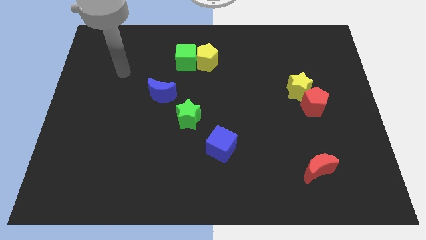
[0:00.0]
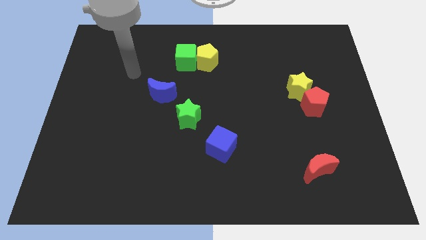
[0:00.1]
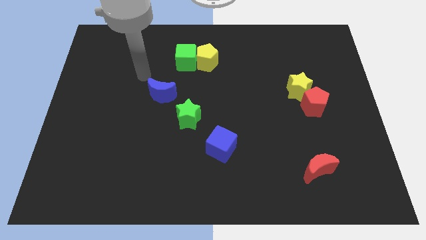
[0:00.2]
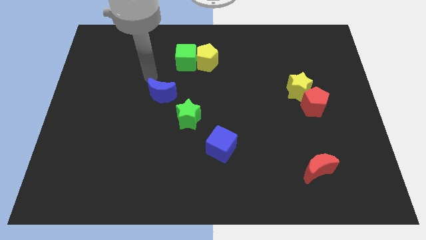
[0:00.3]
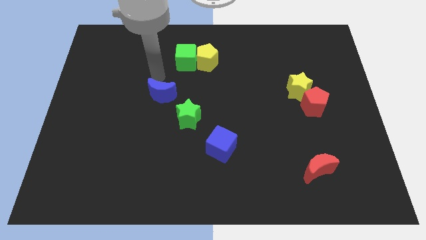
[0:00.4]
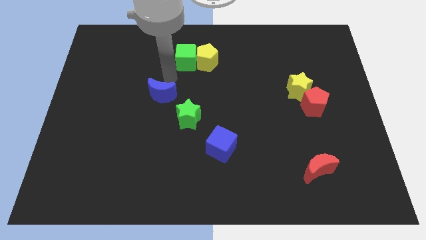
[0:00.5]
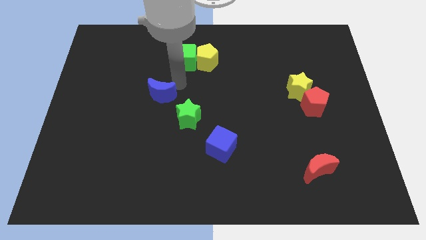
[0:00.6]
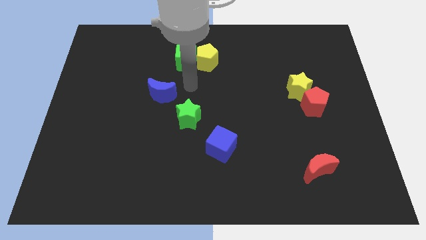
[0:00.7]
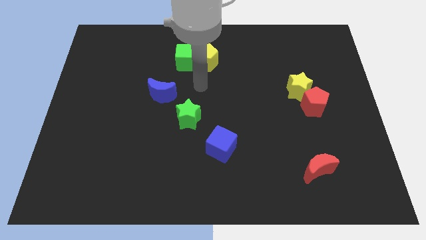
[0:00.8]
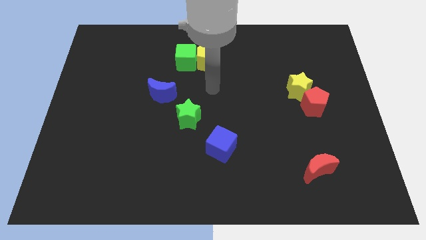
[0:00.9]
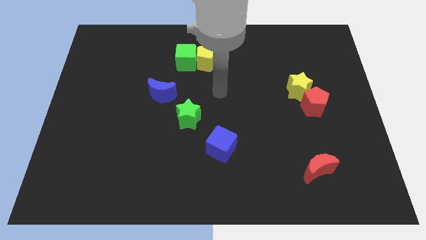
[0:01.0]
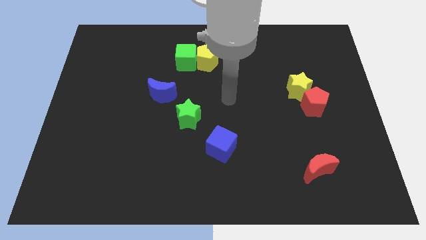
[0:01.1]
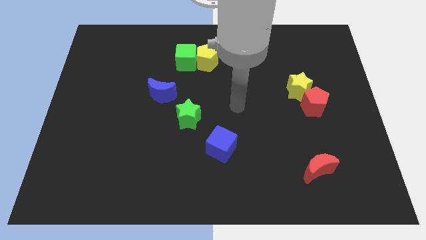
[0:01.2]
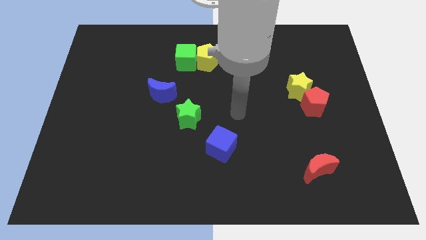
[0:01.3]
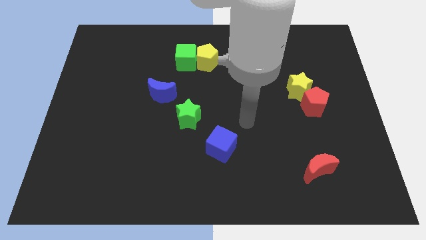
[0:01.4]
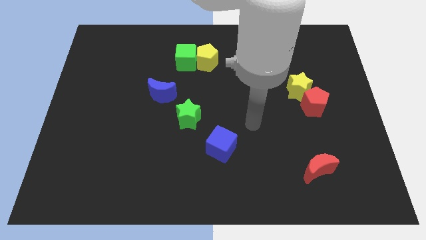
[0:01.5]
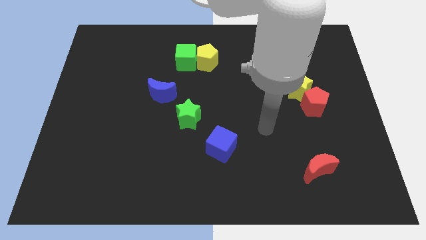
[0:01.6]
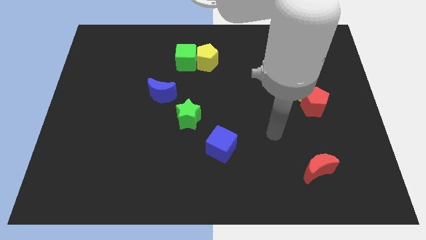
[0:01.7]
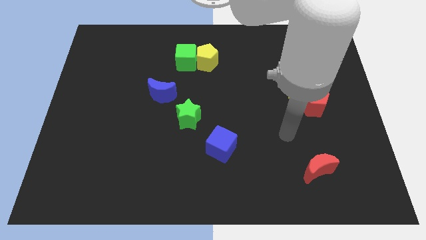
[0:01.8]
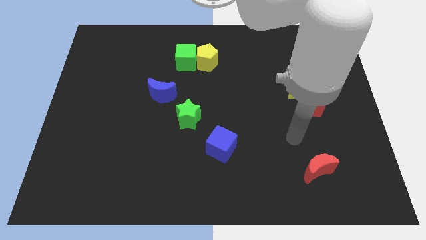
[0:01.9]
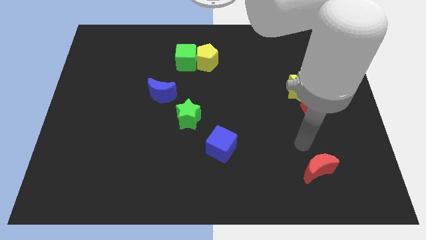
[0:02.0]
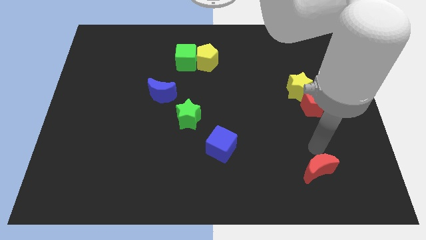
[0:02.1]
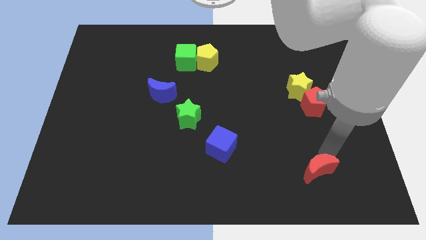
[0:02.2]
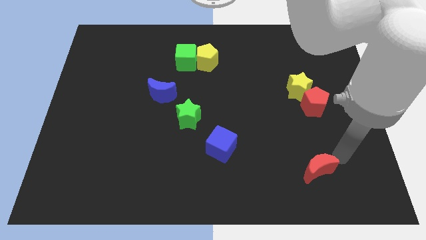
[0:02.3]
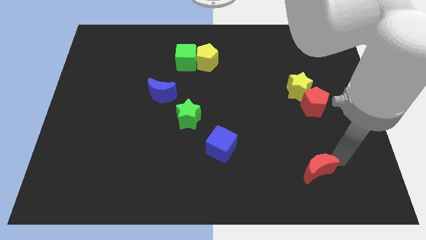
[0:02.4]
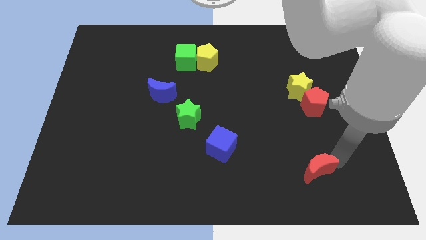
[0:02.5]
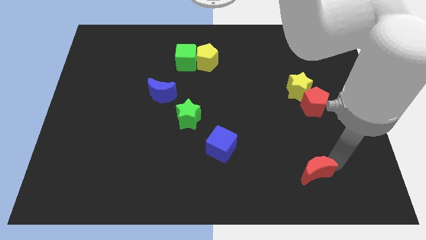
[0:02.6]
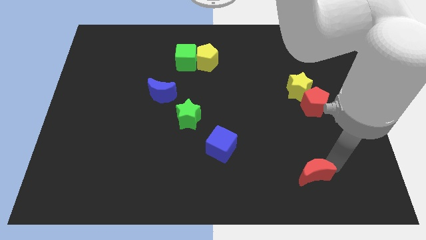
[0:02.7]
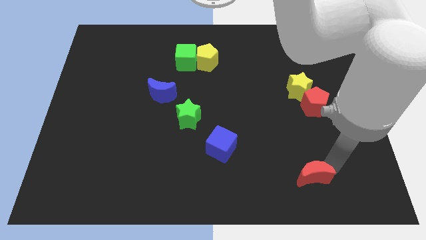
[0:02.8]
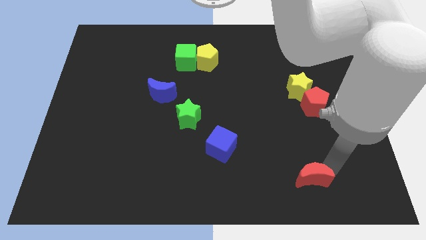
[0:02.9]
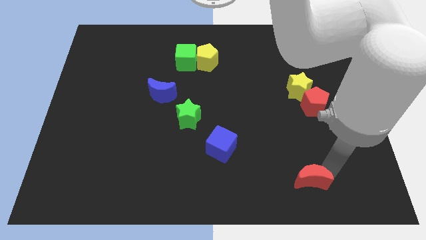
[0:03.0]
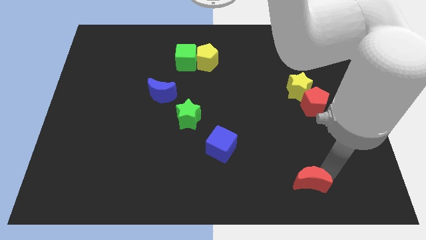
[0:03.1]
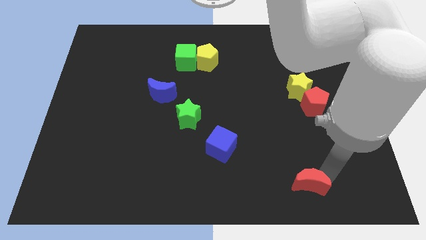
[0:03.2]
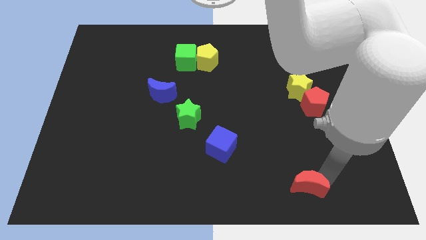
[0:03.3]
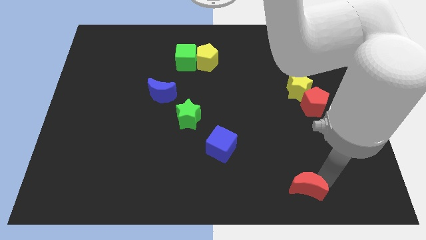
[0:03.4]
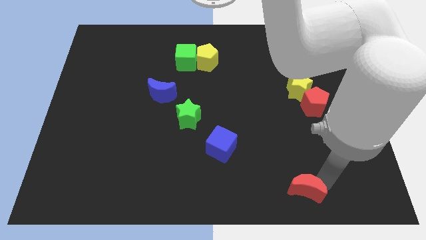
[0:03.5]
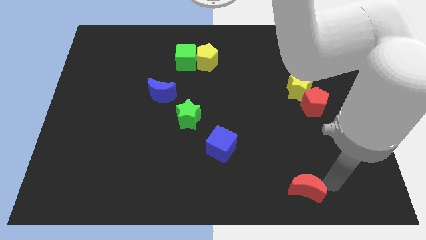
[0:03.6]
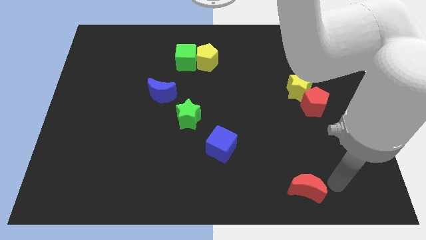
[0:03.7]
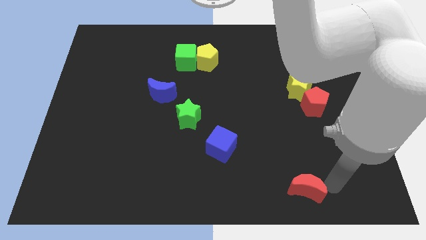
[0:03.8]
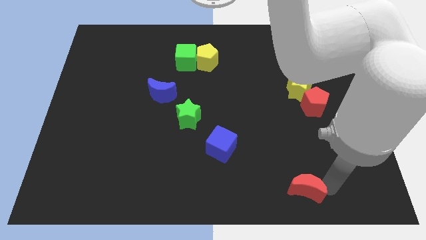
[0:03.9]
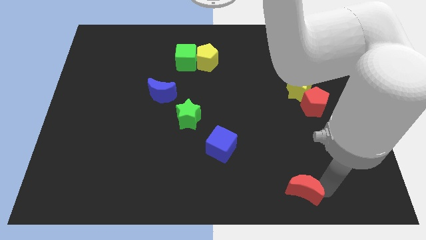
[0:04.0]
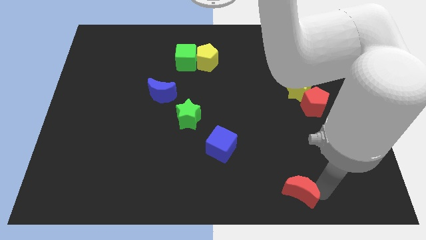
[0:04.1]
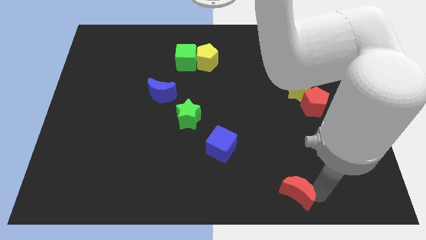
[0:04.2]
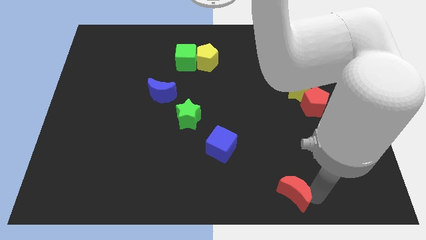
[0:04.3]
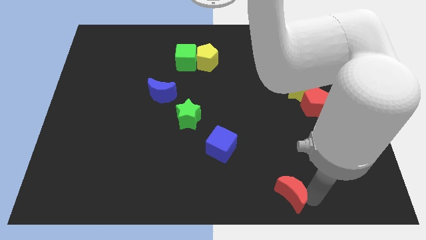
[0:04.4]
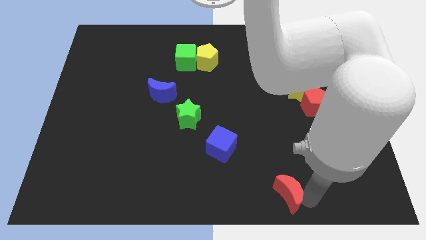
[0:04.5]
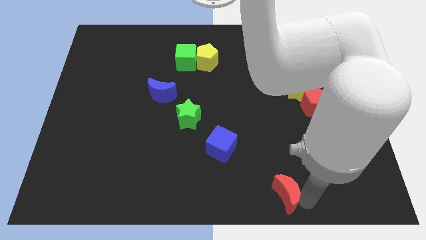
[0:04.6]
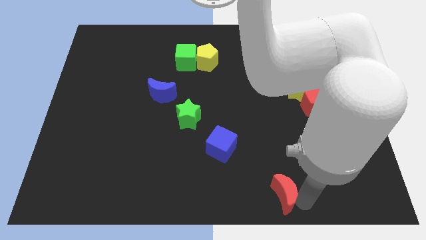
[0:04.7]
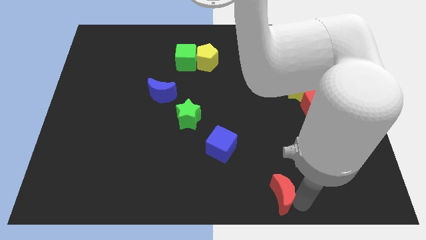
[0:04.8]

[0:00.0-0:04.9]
put the red moon to the bottom

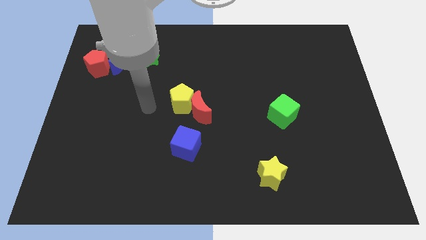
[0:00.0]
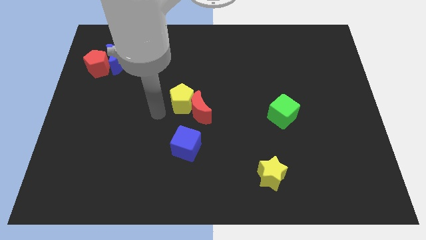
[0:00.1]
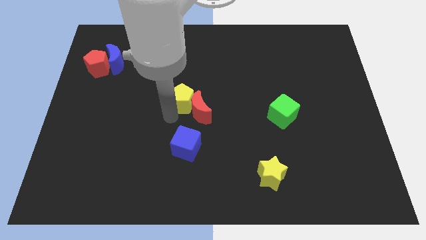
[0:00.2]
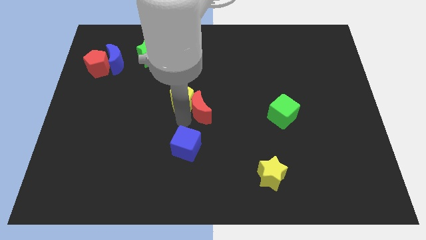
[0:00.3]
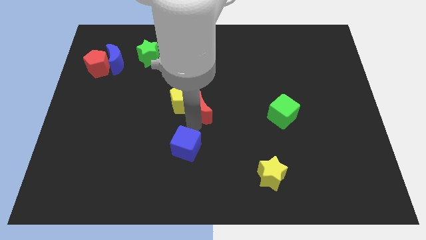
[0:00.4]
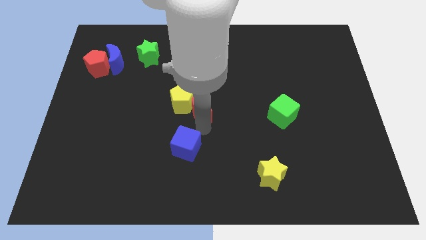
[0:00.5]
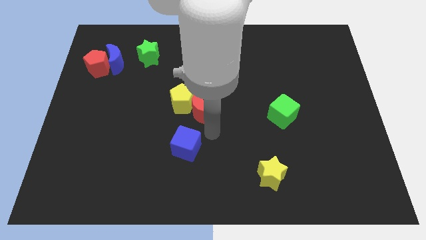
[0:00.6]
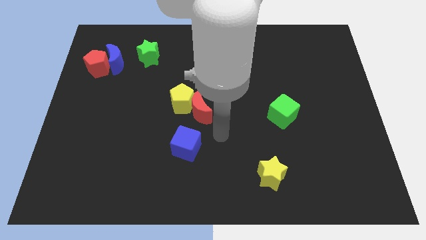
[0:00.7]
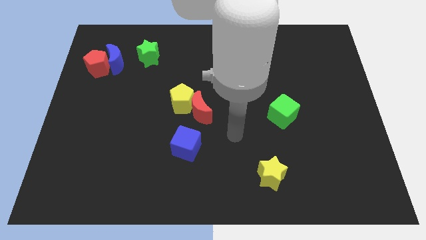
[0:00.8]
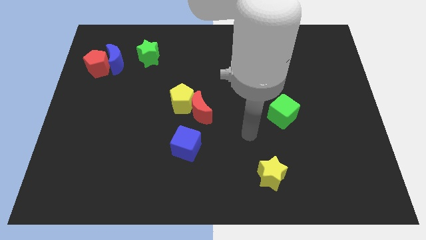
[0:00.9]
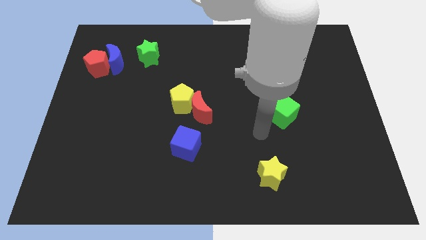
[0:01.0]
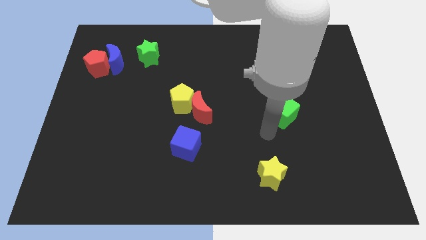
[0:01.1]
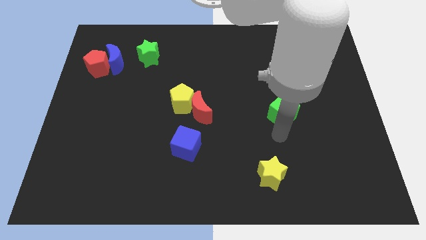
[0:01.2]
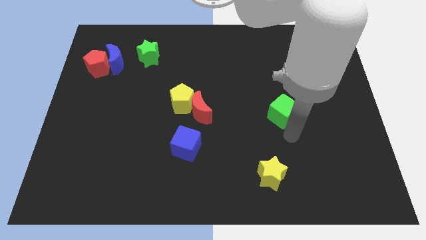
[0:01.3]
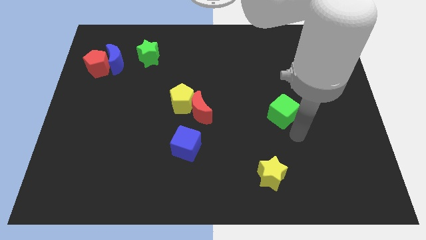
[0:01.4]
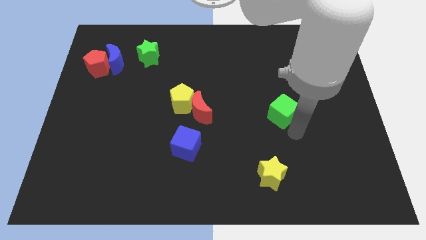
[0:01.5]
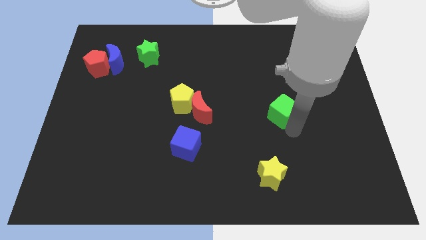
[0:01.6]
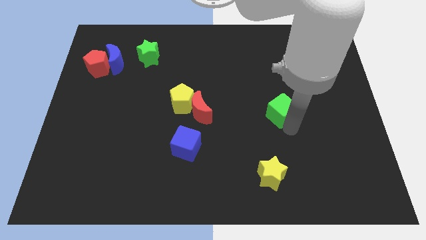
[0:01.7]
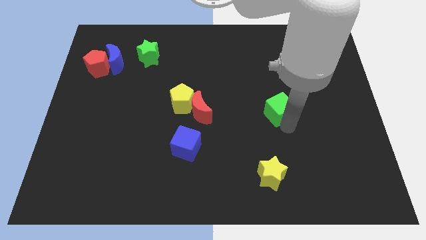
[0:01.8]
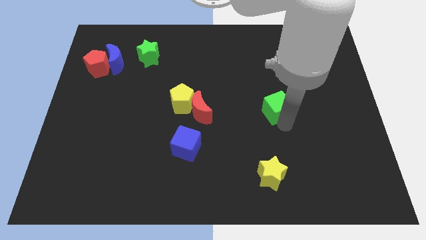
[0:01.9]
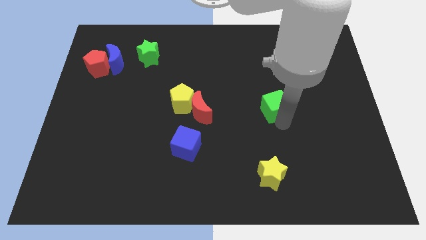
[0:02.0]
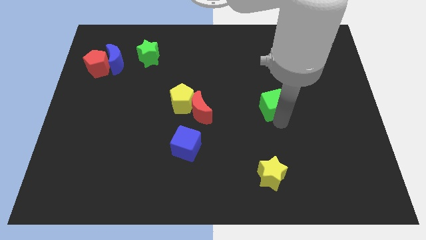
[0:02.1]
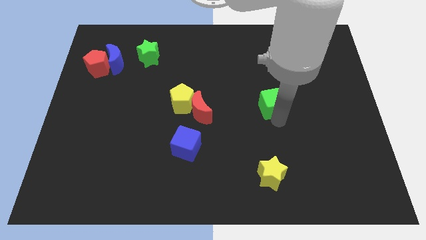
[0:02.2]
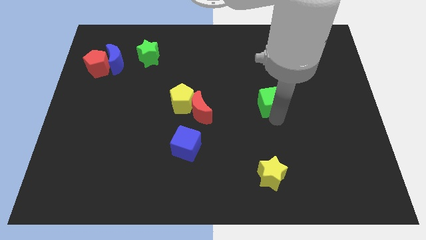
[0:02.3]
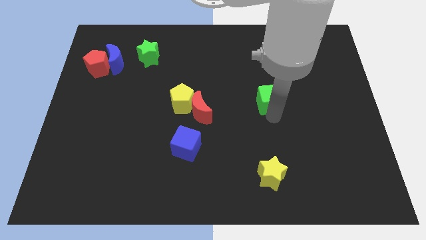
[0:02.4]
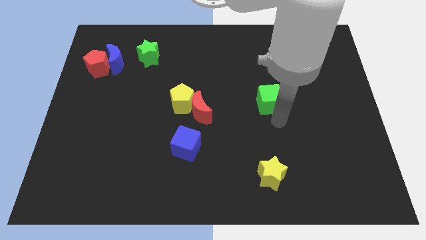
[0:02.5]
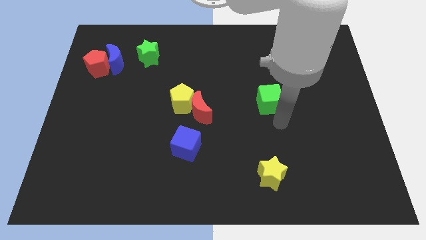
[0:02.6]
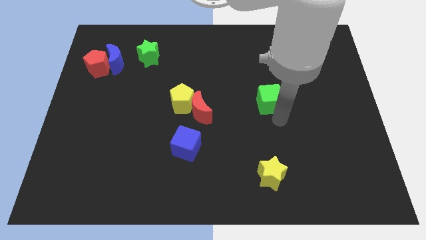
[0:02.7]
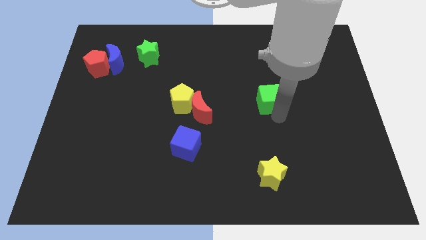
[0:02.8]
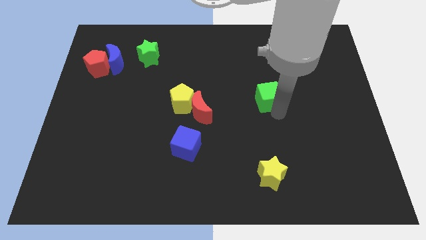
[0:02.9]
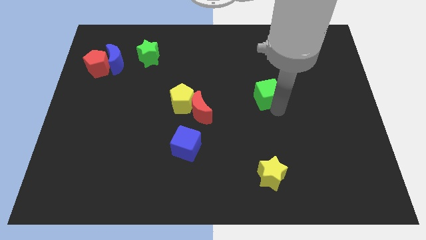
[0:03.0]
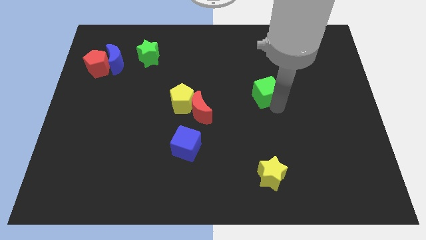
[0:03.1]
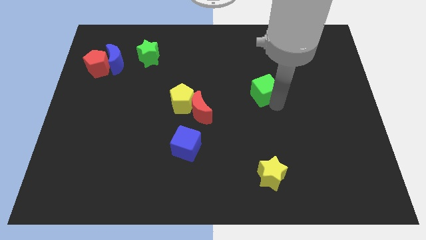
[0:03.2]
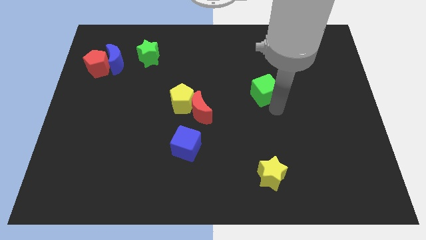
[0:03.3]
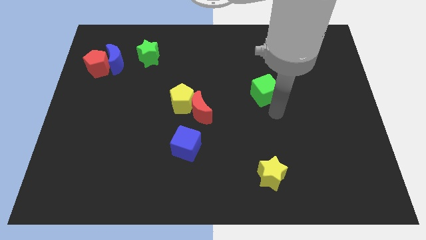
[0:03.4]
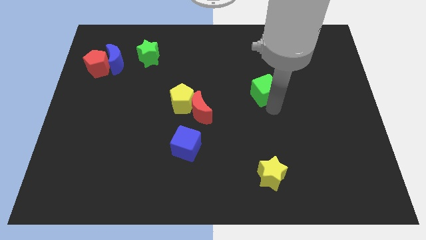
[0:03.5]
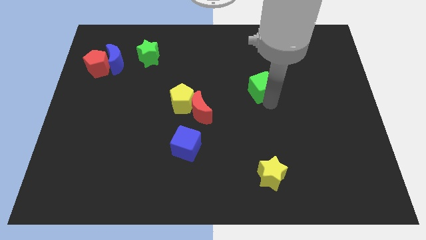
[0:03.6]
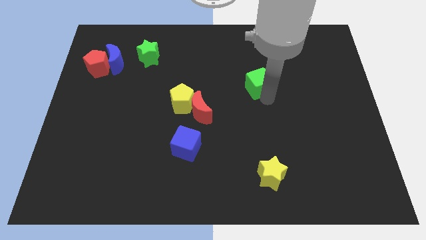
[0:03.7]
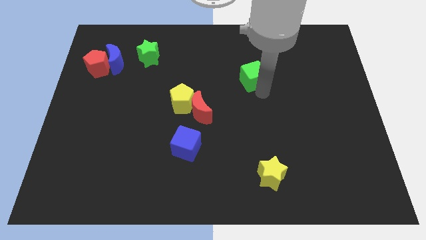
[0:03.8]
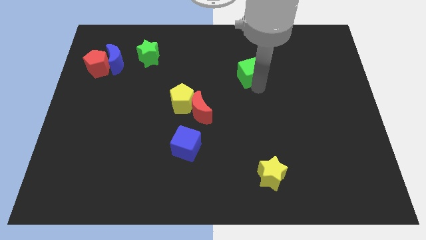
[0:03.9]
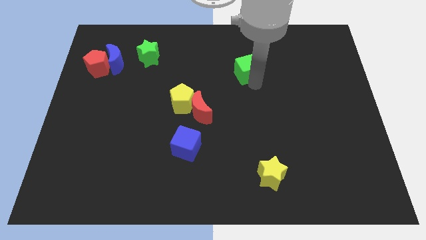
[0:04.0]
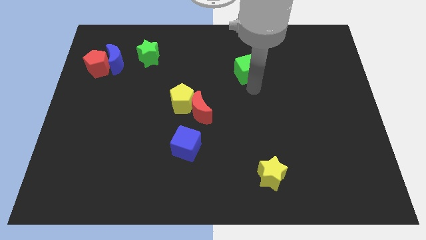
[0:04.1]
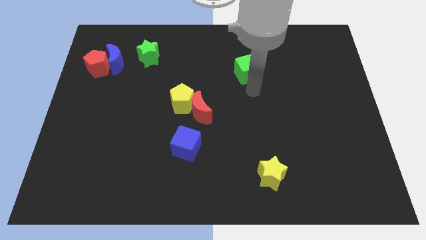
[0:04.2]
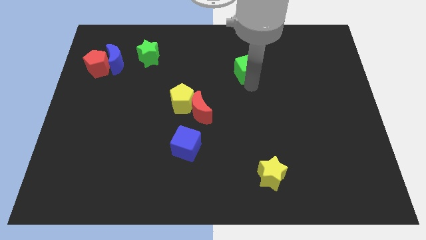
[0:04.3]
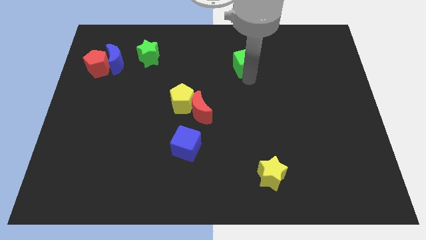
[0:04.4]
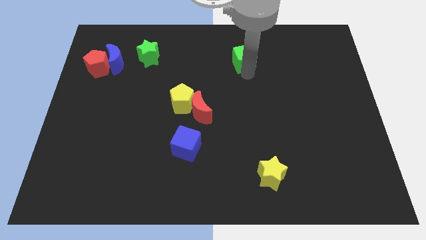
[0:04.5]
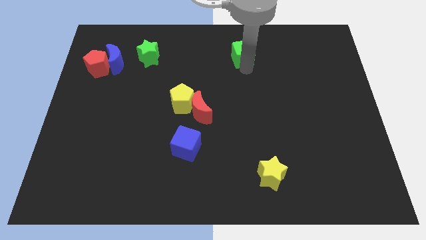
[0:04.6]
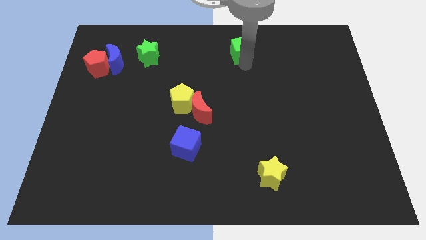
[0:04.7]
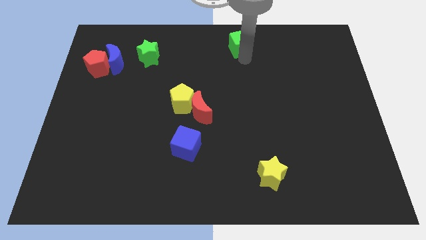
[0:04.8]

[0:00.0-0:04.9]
push the green cube to the top
